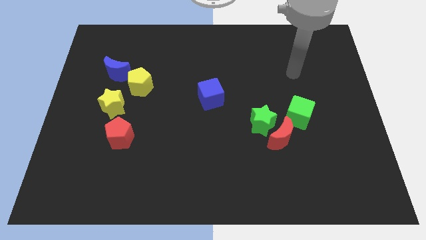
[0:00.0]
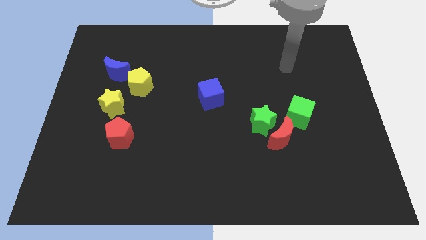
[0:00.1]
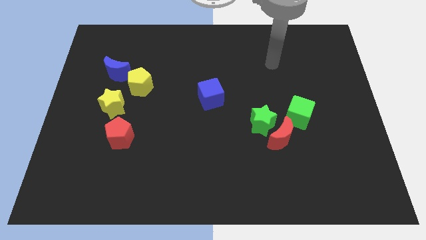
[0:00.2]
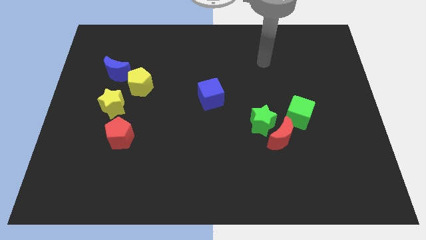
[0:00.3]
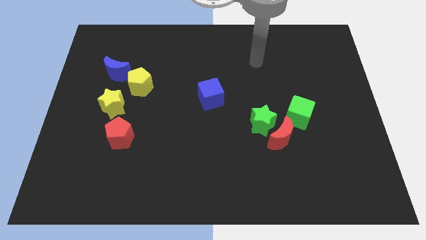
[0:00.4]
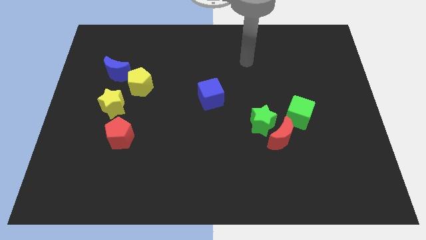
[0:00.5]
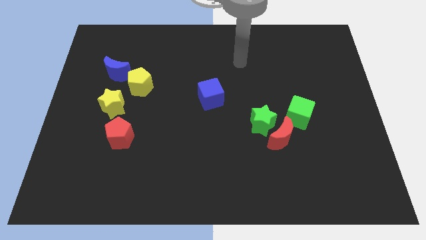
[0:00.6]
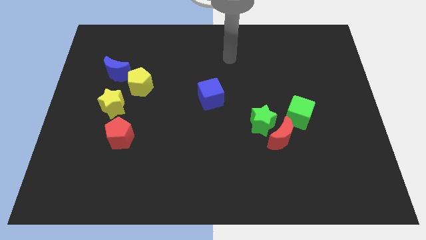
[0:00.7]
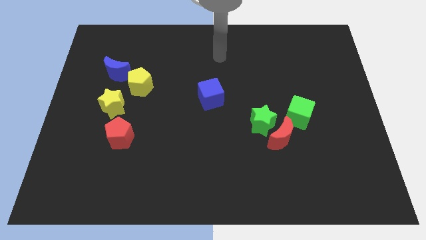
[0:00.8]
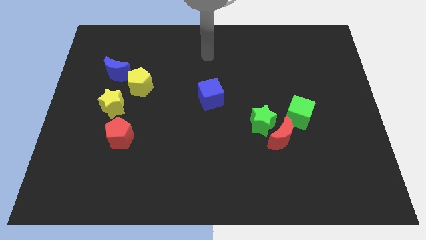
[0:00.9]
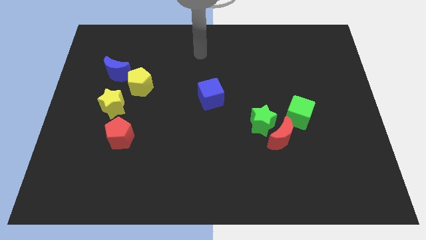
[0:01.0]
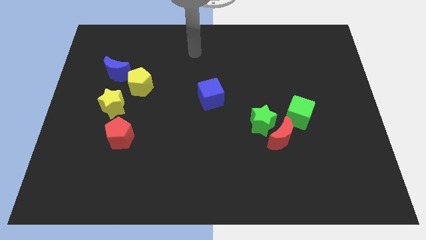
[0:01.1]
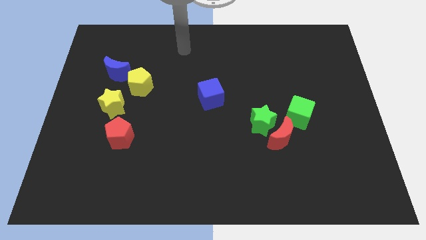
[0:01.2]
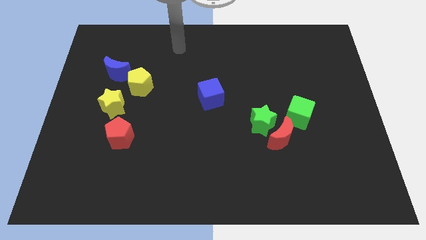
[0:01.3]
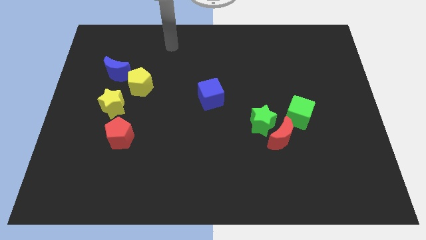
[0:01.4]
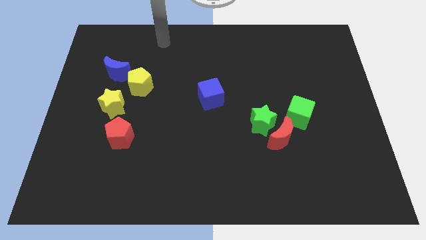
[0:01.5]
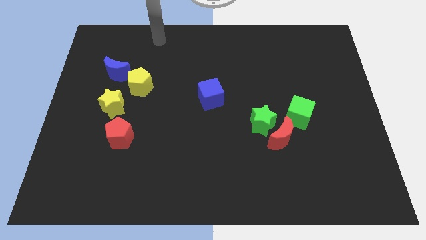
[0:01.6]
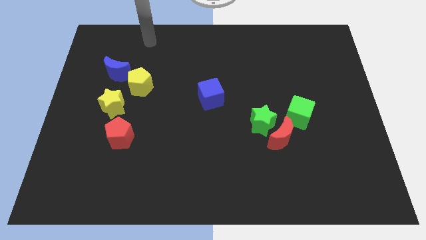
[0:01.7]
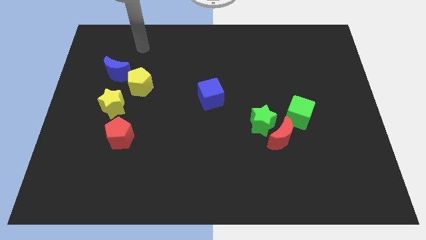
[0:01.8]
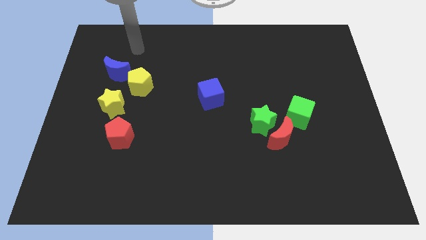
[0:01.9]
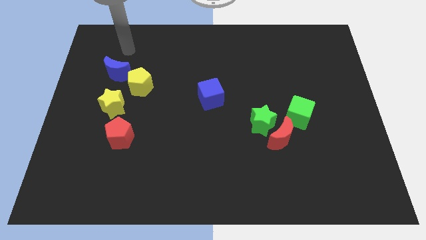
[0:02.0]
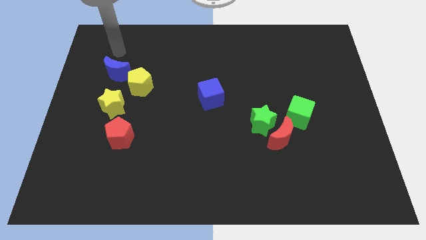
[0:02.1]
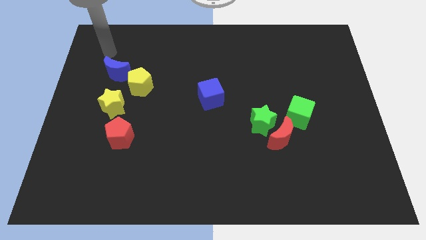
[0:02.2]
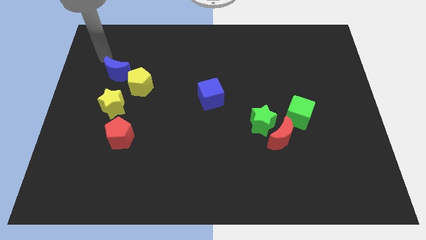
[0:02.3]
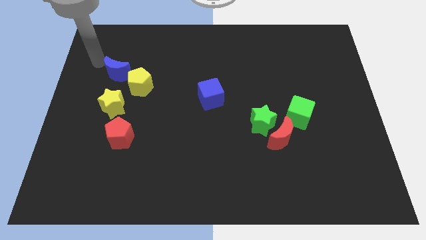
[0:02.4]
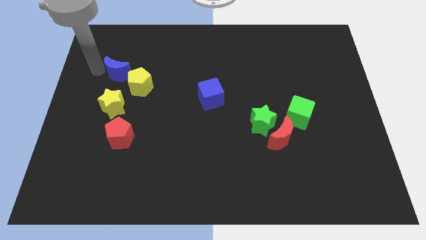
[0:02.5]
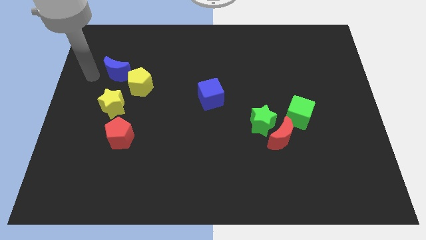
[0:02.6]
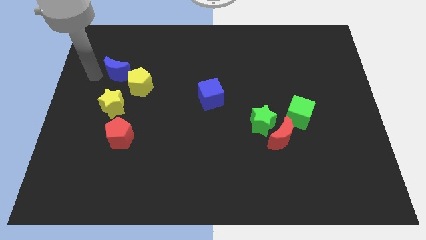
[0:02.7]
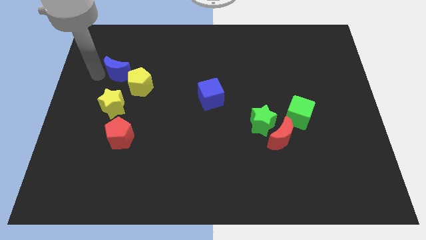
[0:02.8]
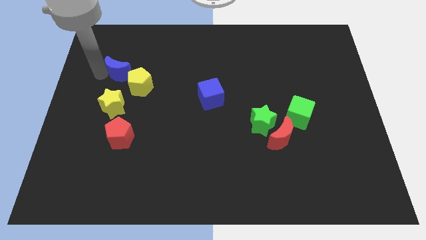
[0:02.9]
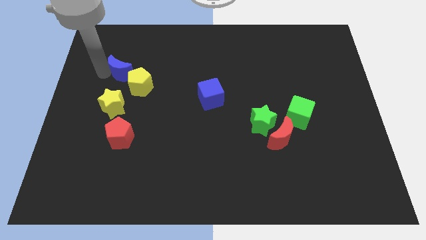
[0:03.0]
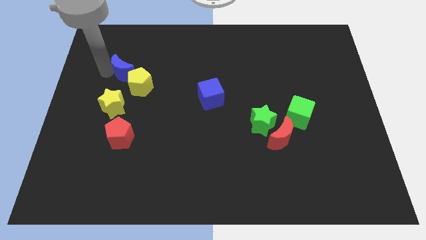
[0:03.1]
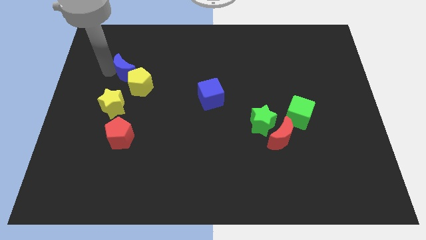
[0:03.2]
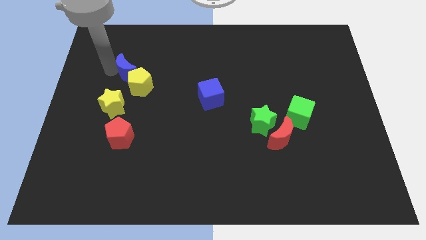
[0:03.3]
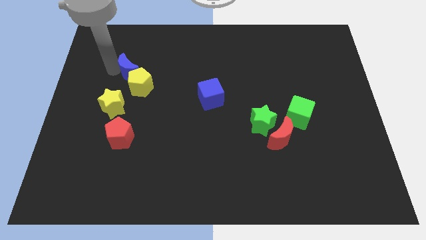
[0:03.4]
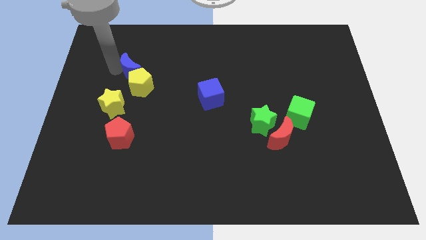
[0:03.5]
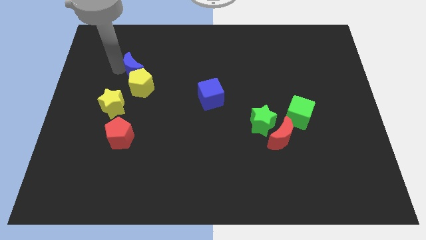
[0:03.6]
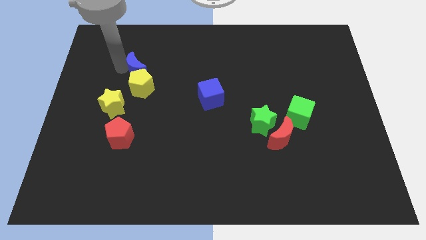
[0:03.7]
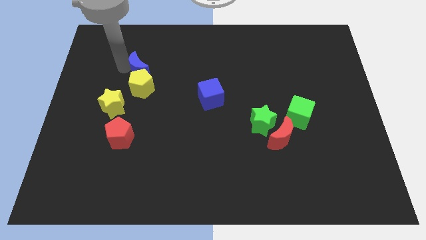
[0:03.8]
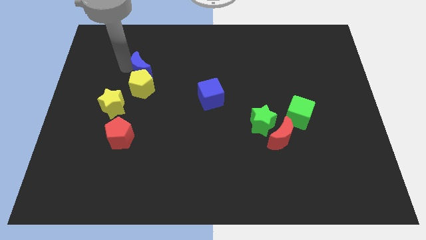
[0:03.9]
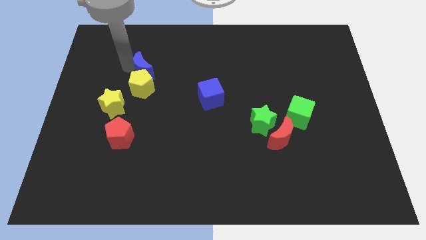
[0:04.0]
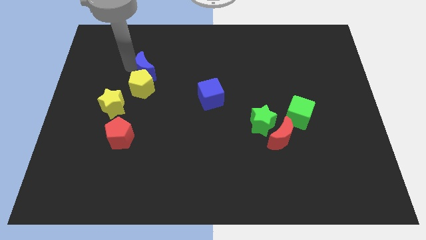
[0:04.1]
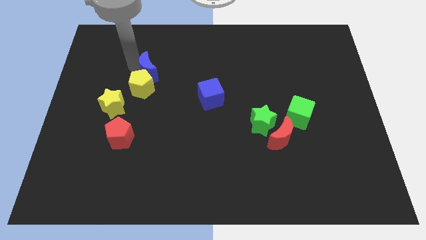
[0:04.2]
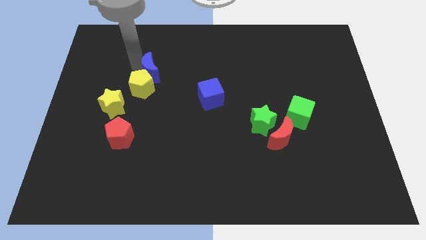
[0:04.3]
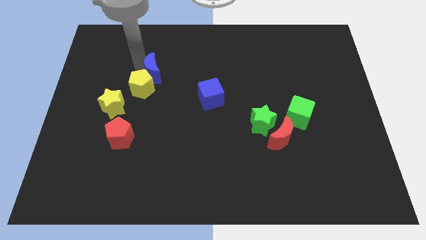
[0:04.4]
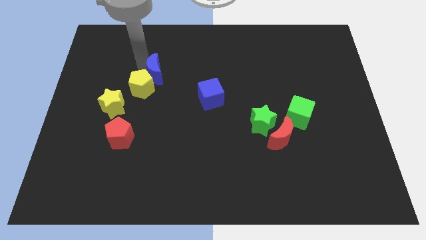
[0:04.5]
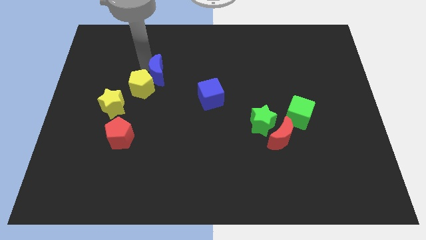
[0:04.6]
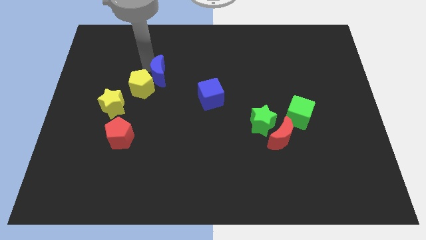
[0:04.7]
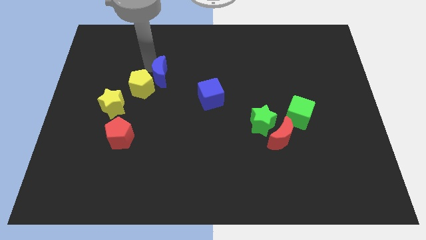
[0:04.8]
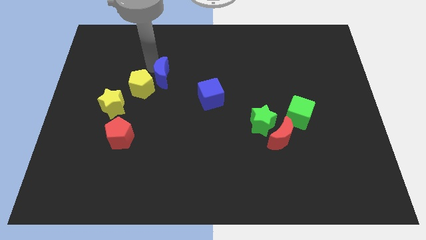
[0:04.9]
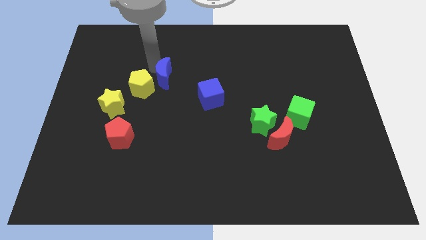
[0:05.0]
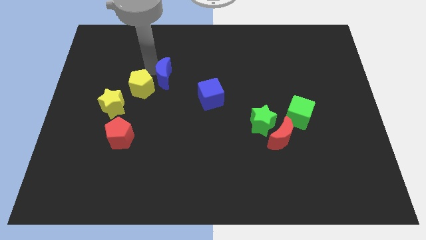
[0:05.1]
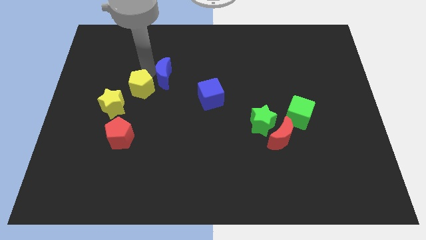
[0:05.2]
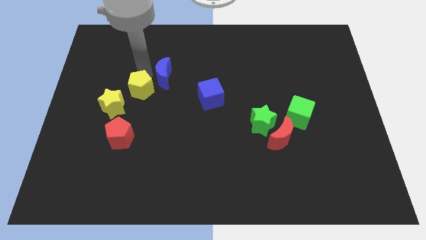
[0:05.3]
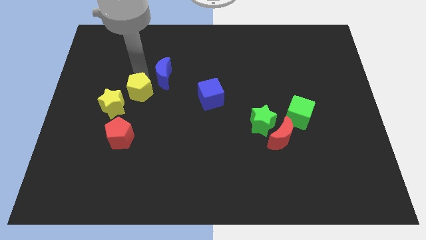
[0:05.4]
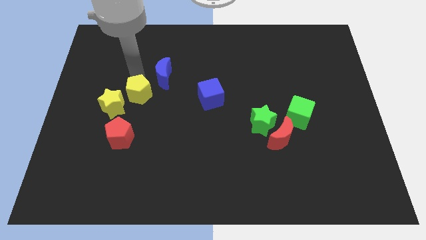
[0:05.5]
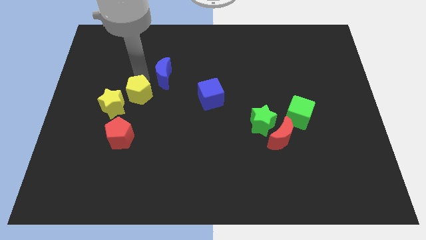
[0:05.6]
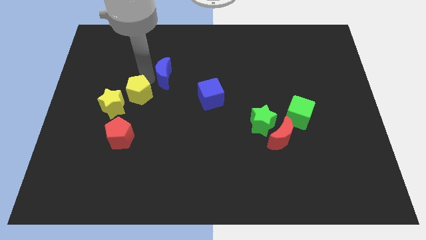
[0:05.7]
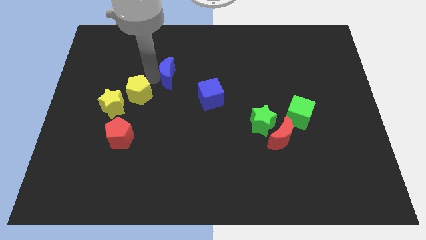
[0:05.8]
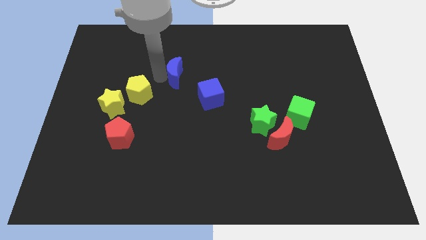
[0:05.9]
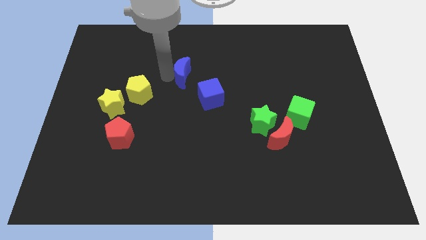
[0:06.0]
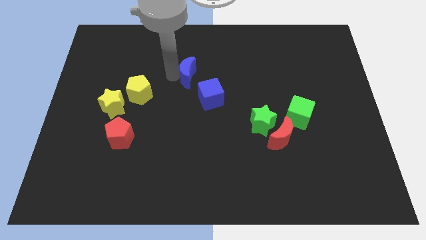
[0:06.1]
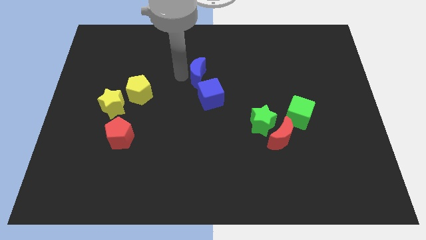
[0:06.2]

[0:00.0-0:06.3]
push the blue moon to the right

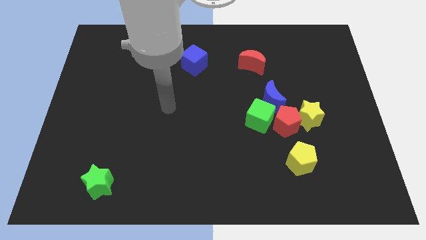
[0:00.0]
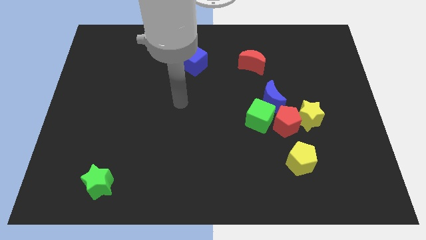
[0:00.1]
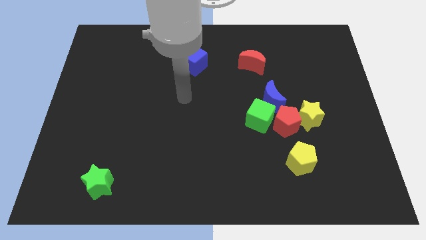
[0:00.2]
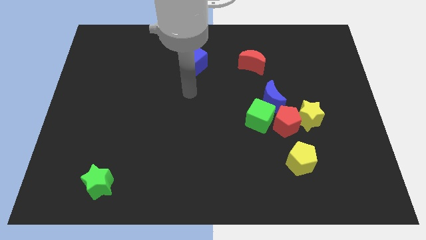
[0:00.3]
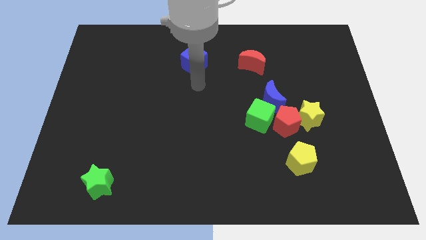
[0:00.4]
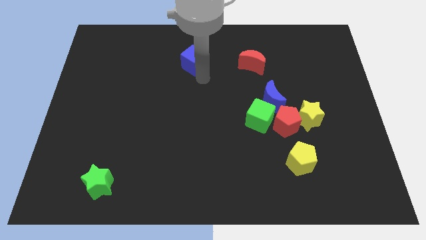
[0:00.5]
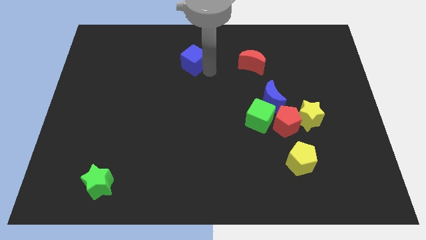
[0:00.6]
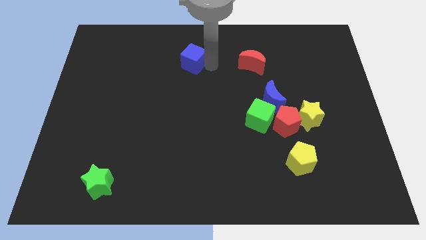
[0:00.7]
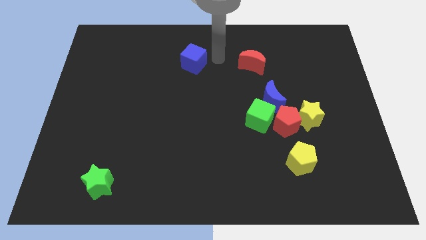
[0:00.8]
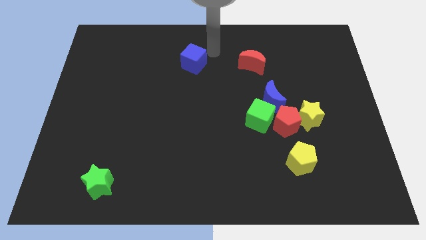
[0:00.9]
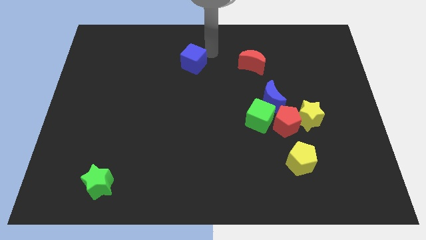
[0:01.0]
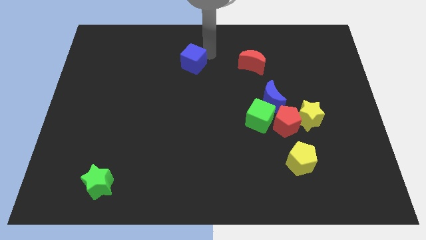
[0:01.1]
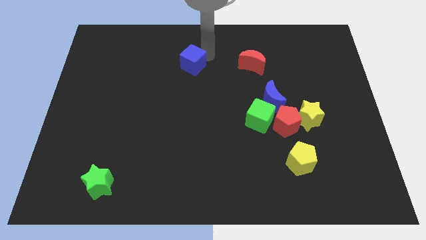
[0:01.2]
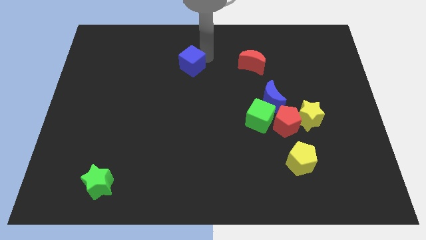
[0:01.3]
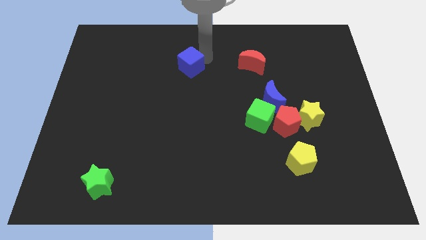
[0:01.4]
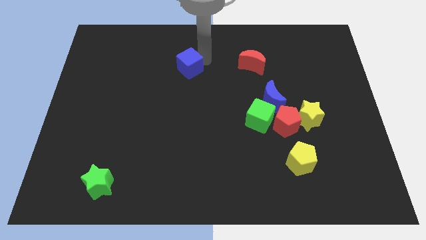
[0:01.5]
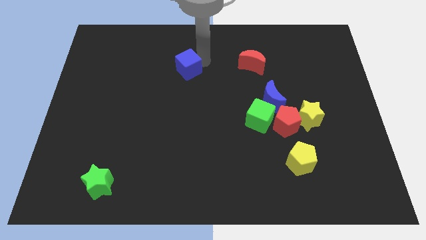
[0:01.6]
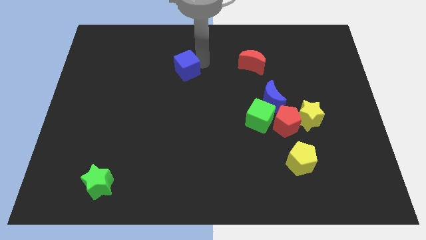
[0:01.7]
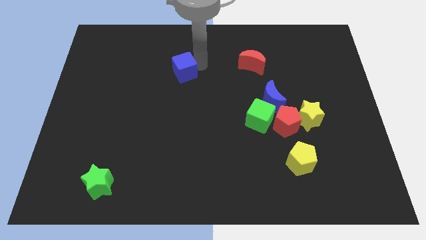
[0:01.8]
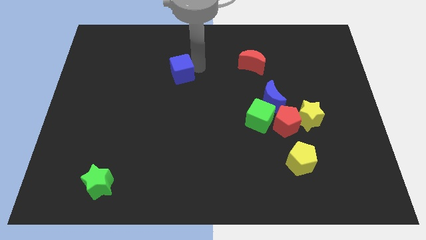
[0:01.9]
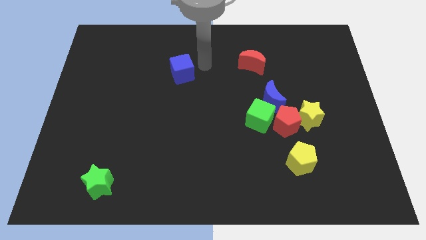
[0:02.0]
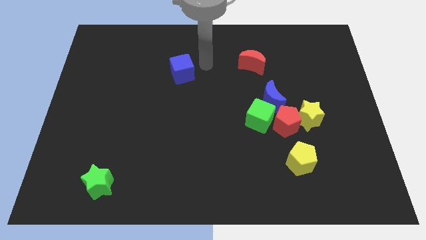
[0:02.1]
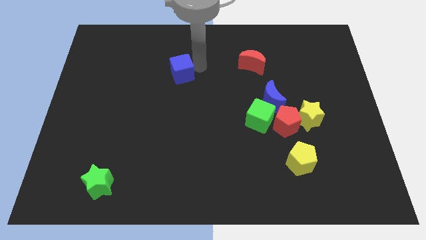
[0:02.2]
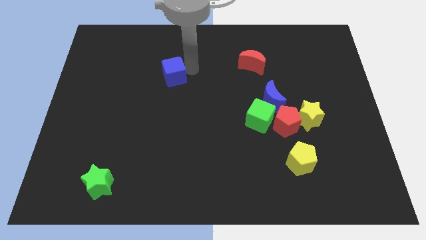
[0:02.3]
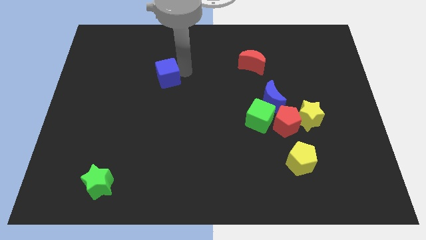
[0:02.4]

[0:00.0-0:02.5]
move the blue cube downwards and left diagonally somewhat
